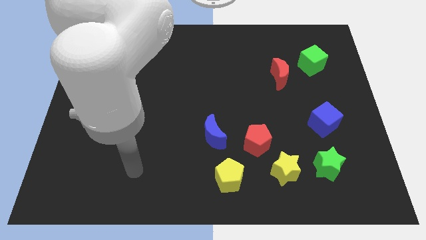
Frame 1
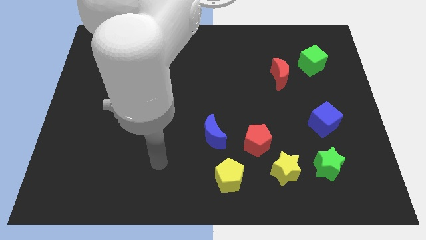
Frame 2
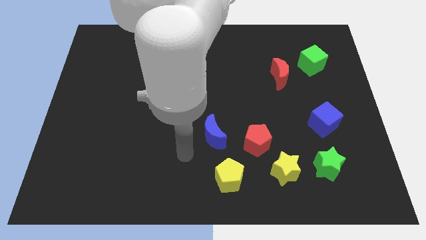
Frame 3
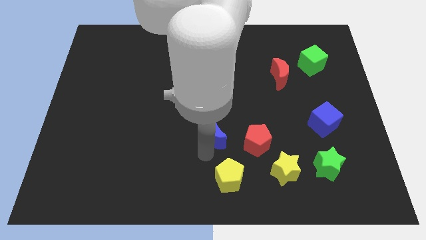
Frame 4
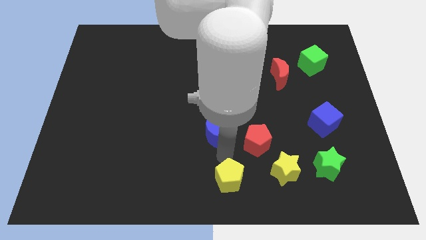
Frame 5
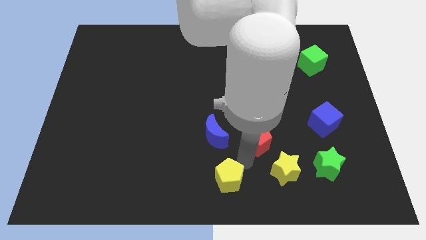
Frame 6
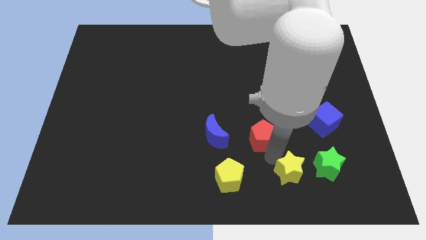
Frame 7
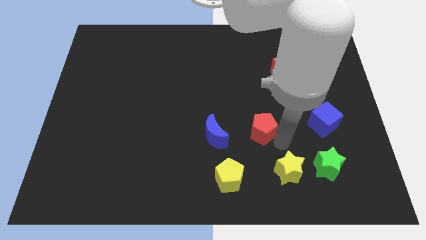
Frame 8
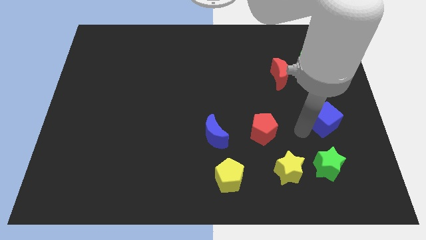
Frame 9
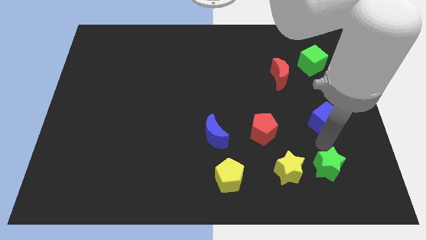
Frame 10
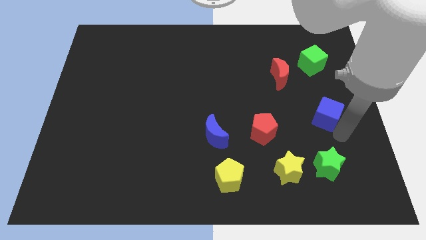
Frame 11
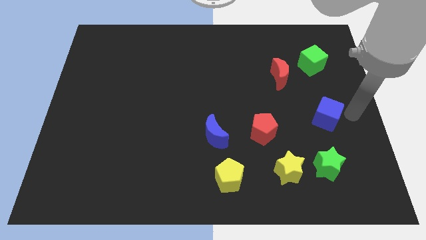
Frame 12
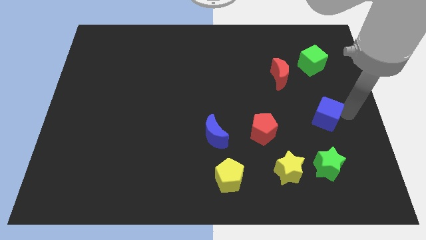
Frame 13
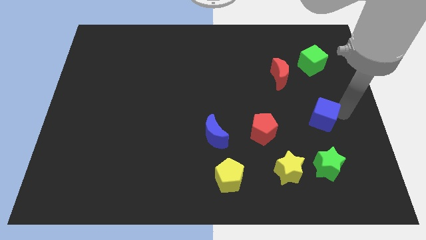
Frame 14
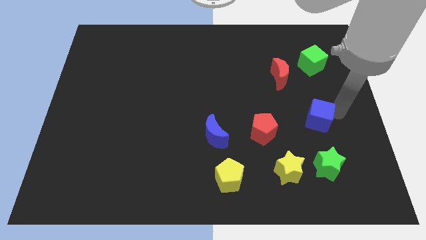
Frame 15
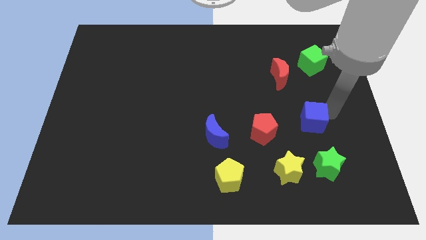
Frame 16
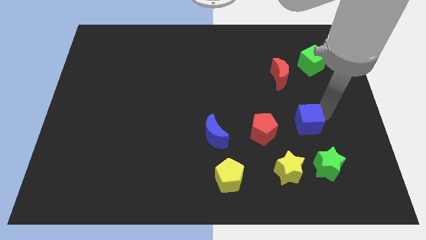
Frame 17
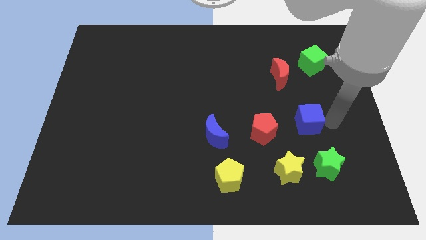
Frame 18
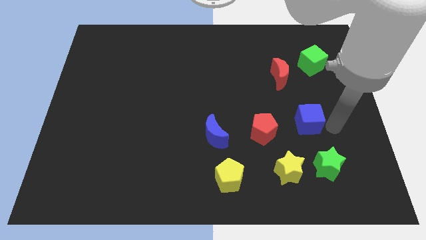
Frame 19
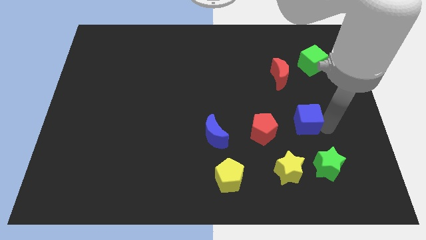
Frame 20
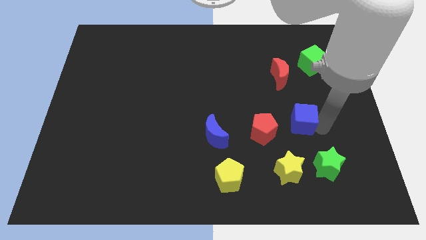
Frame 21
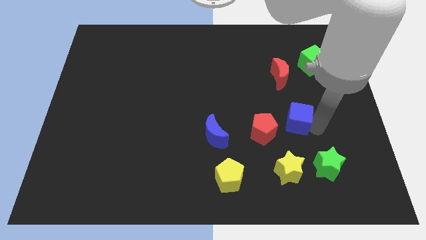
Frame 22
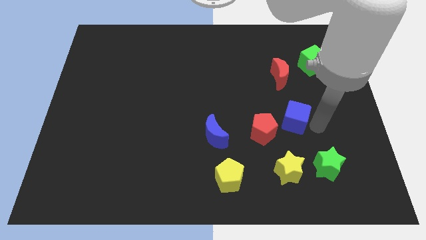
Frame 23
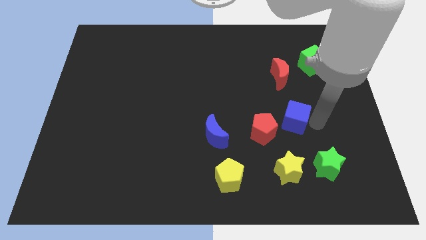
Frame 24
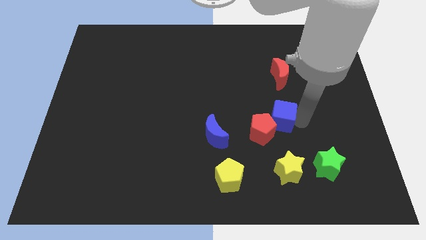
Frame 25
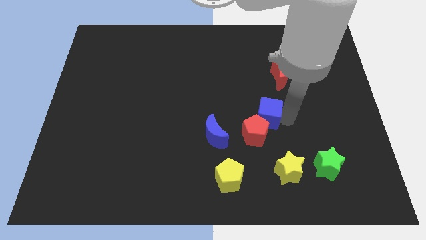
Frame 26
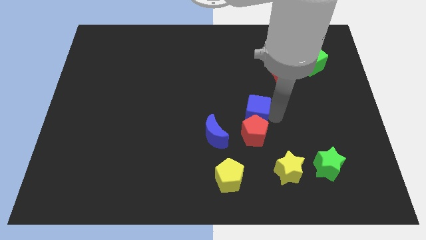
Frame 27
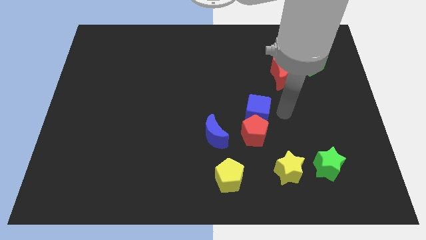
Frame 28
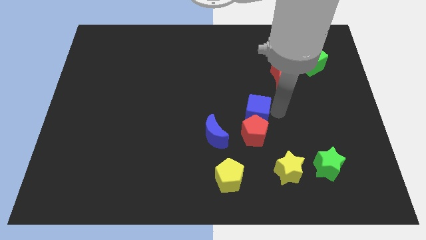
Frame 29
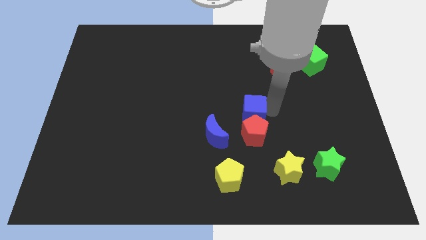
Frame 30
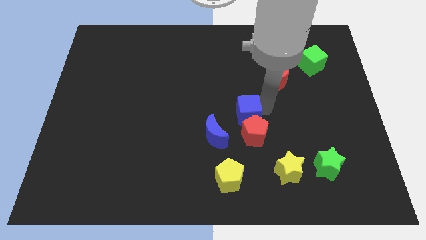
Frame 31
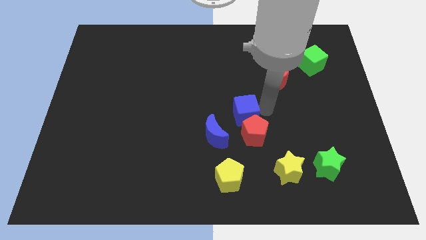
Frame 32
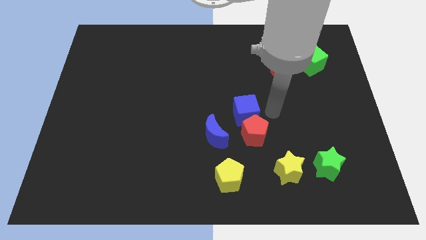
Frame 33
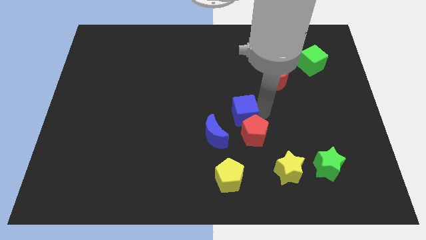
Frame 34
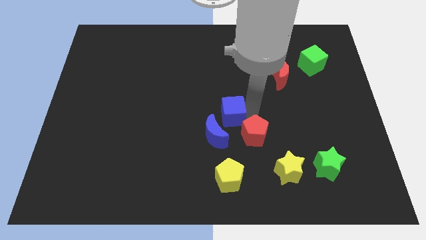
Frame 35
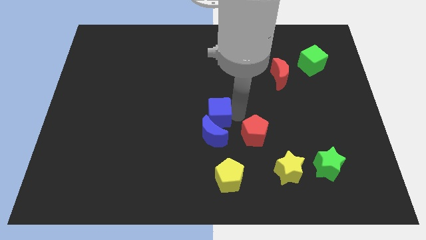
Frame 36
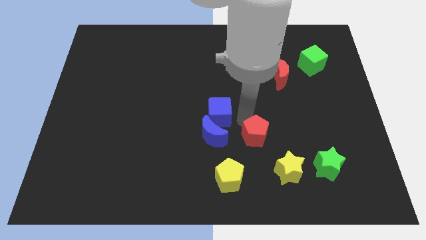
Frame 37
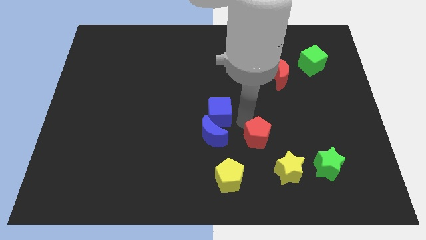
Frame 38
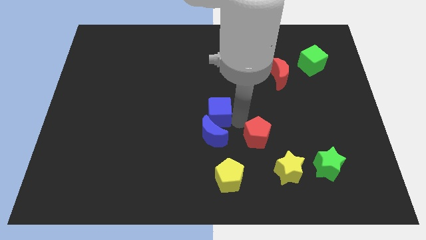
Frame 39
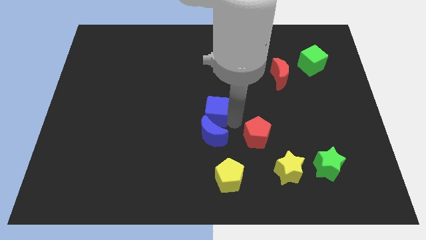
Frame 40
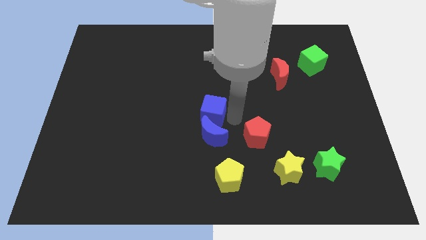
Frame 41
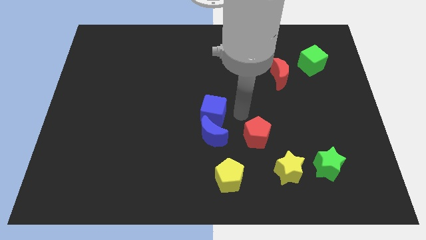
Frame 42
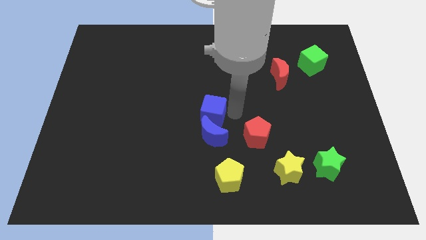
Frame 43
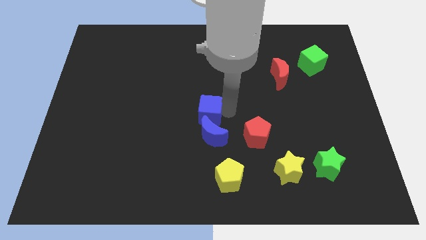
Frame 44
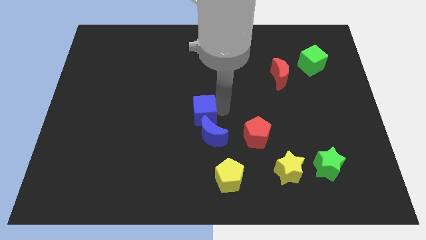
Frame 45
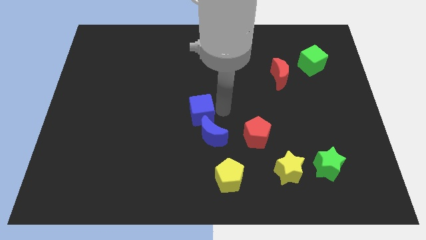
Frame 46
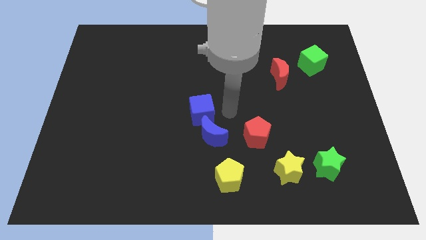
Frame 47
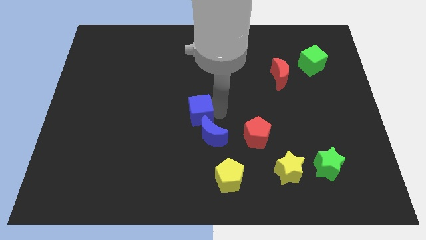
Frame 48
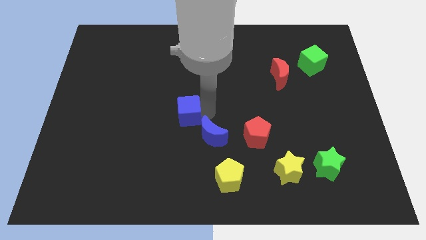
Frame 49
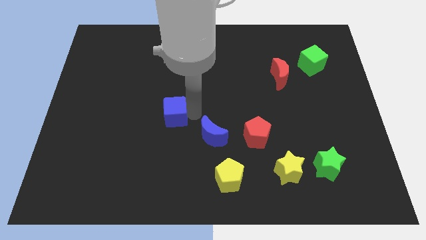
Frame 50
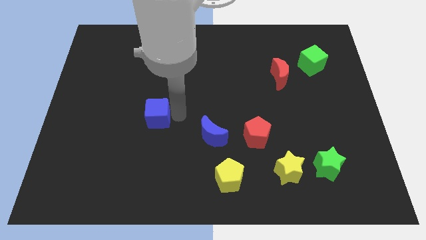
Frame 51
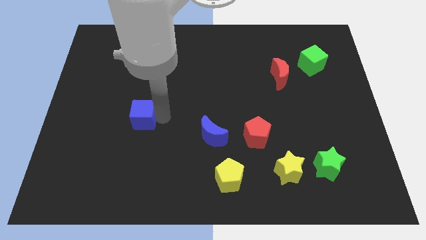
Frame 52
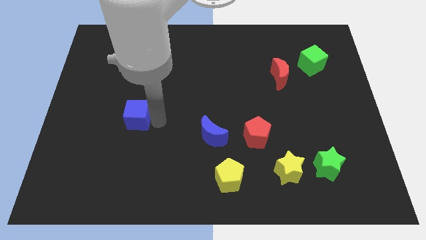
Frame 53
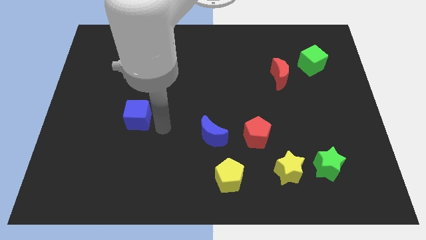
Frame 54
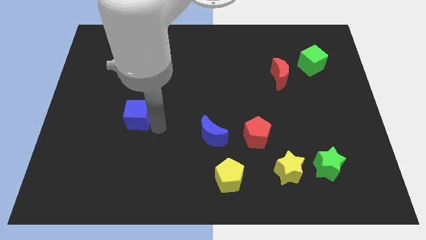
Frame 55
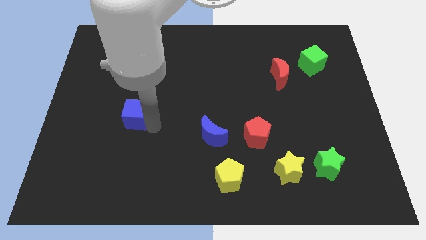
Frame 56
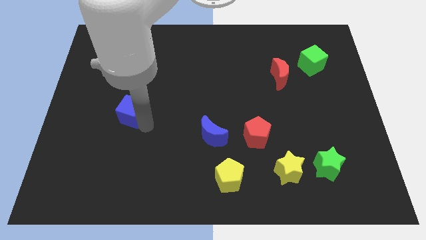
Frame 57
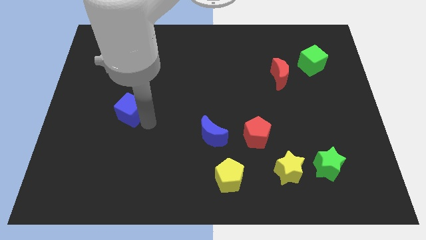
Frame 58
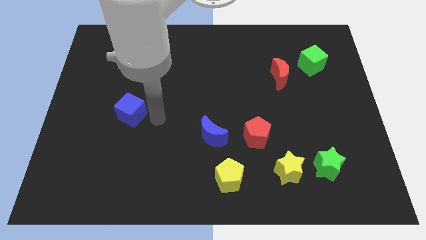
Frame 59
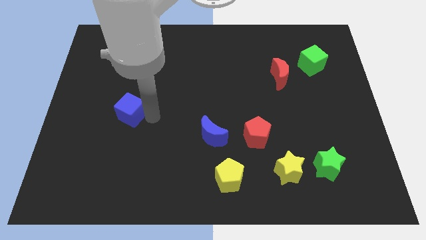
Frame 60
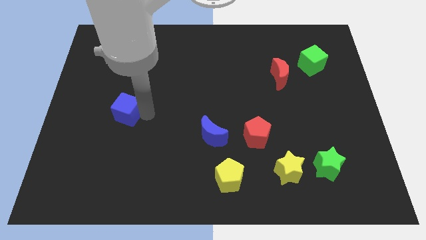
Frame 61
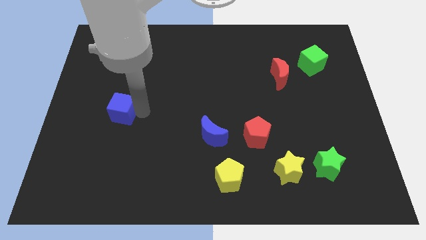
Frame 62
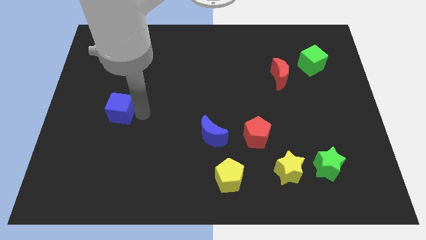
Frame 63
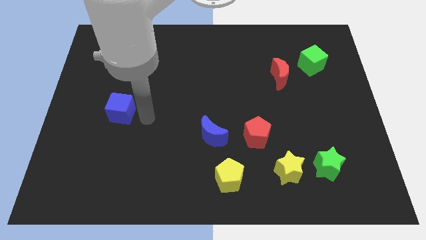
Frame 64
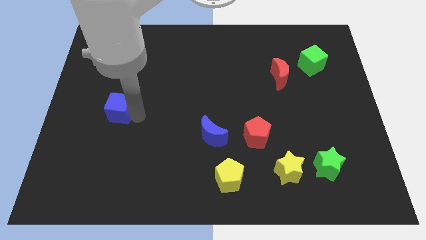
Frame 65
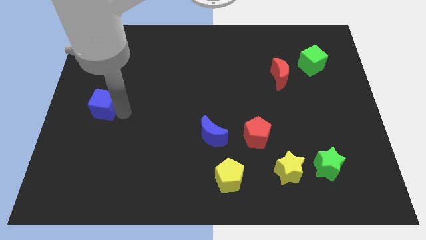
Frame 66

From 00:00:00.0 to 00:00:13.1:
put the blue cube to the center left

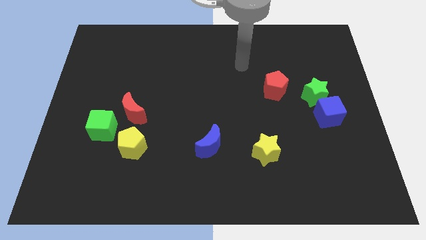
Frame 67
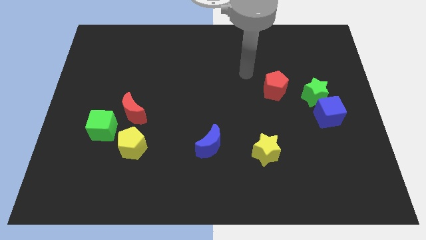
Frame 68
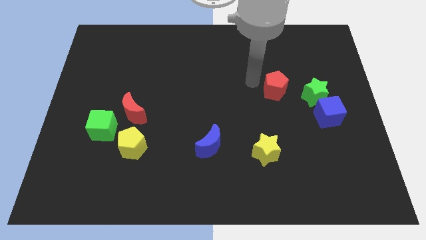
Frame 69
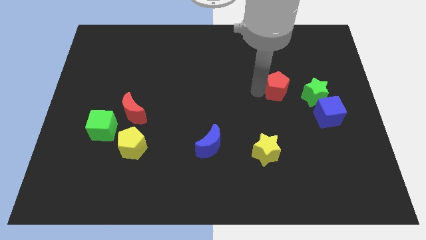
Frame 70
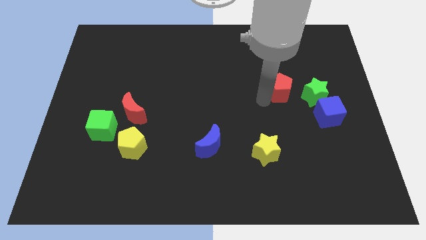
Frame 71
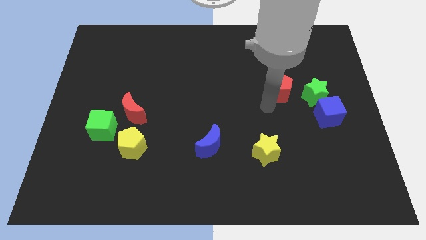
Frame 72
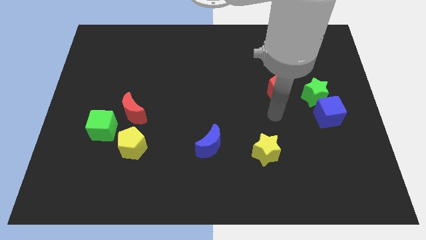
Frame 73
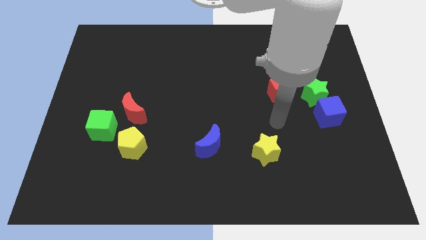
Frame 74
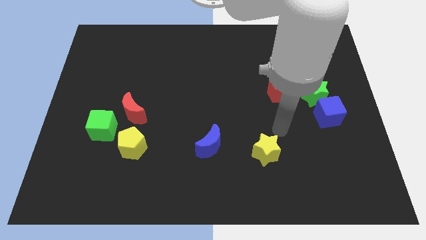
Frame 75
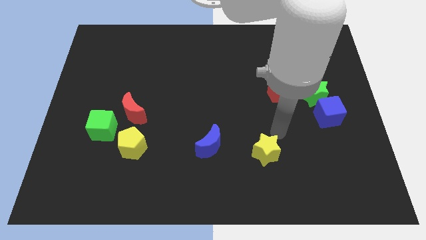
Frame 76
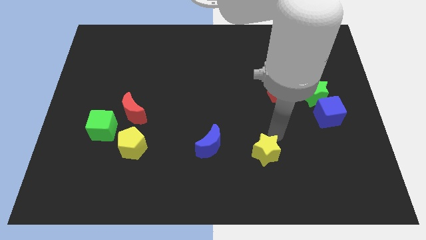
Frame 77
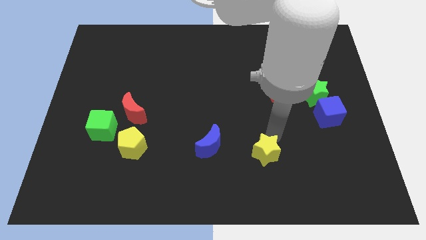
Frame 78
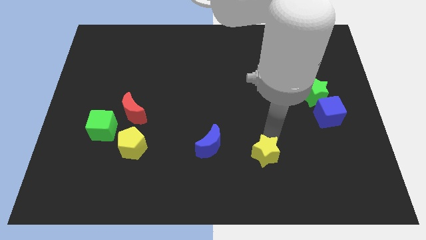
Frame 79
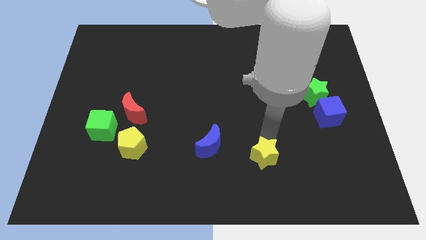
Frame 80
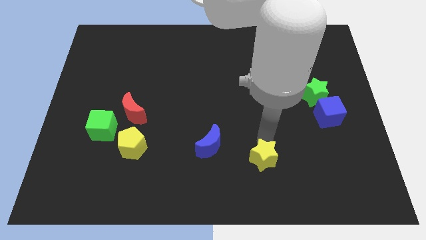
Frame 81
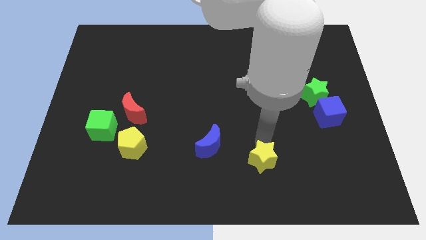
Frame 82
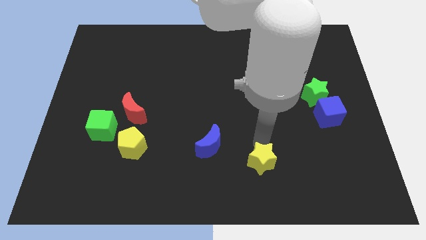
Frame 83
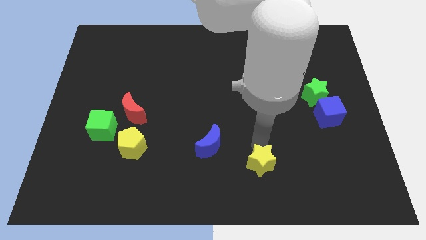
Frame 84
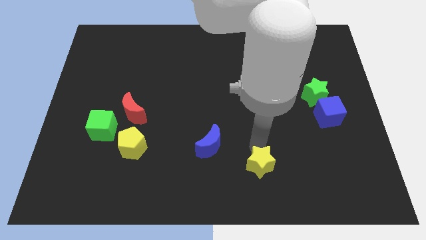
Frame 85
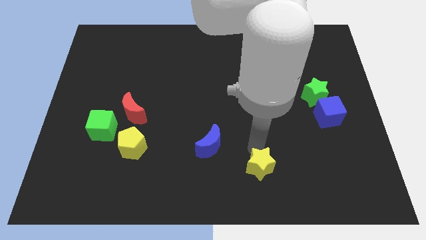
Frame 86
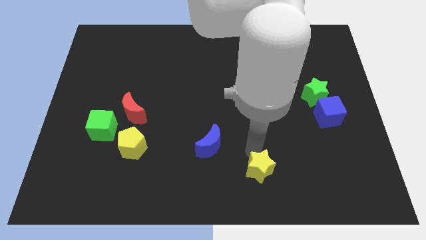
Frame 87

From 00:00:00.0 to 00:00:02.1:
put the yellow star to the bottom
